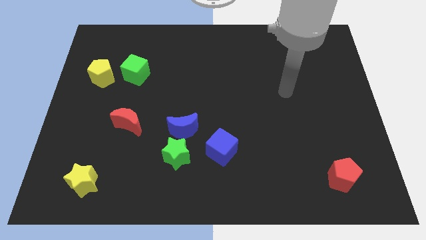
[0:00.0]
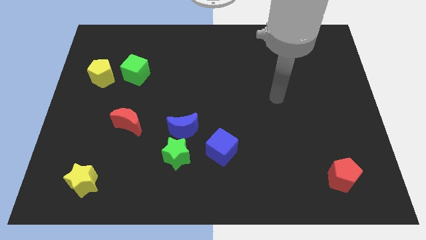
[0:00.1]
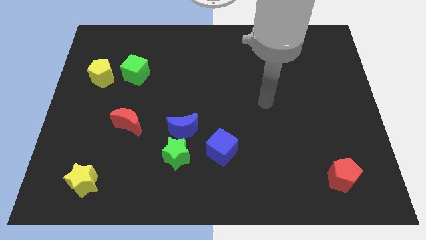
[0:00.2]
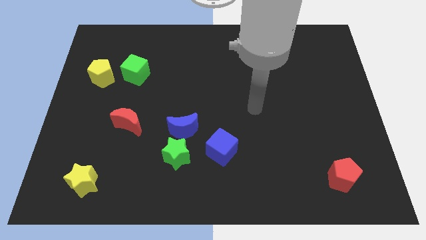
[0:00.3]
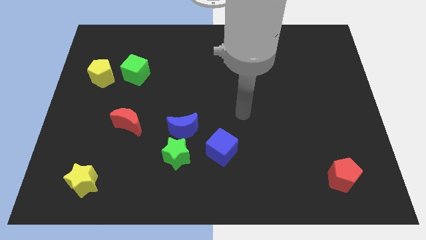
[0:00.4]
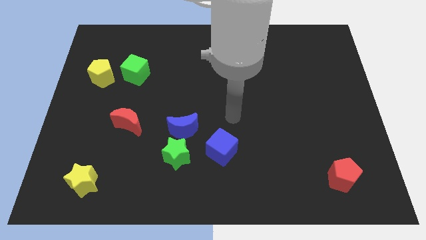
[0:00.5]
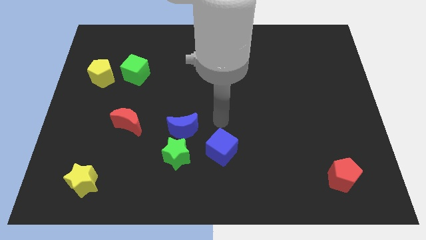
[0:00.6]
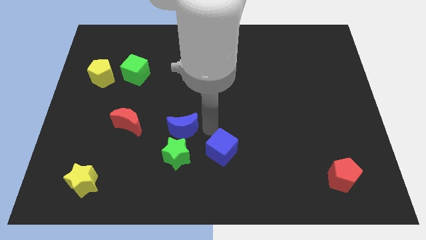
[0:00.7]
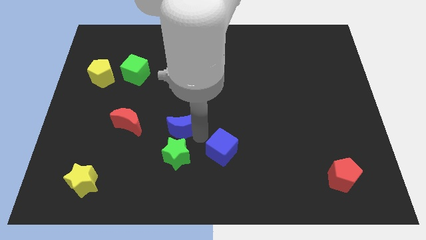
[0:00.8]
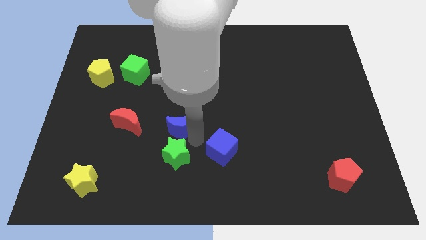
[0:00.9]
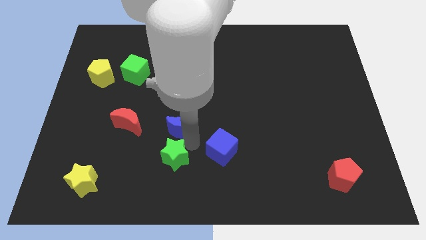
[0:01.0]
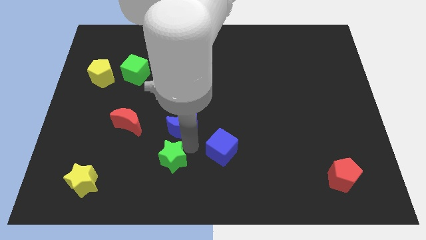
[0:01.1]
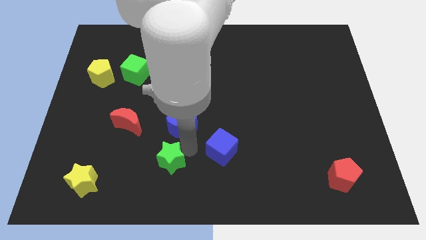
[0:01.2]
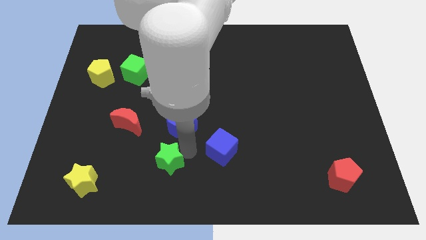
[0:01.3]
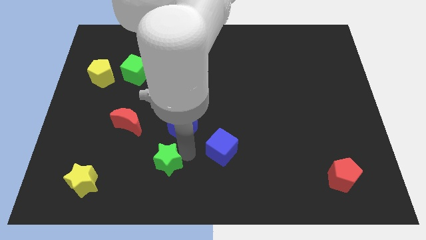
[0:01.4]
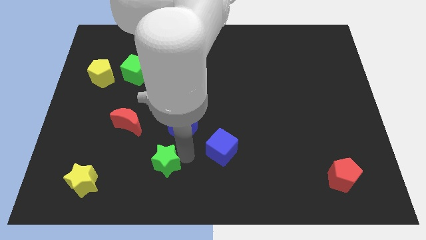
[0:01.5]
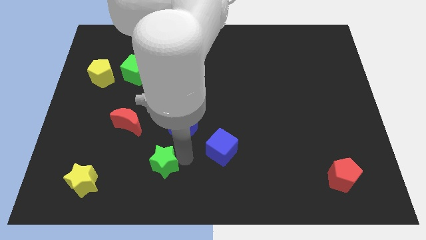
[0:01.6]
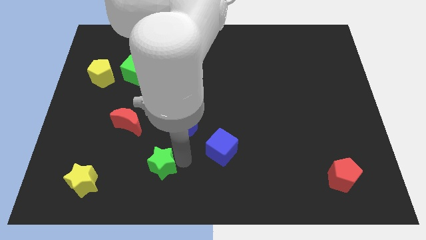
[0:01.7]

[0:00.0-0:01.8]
pull the green star apart from the blue moon and blue cube

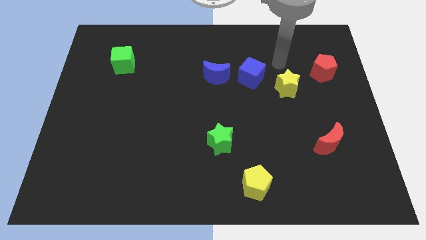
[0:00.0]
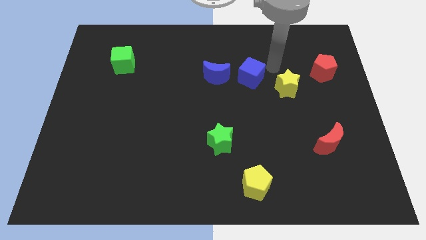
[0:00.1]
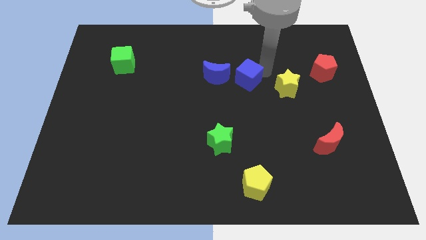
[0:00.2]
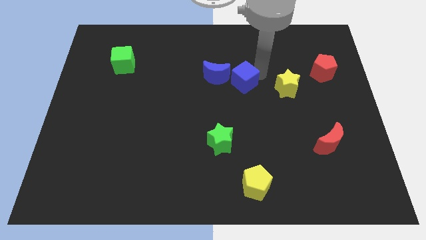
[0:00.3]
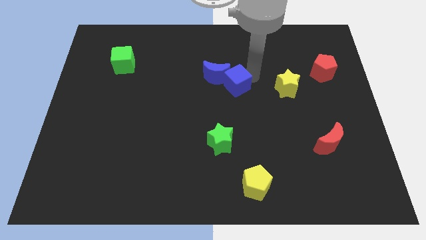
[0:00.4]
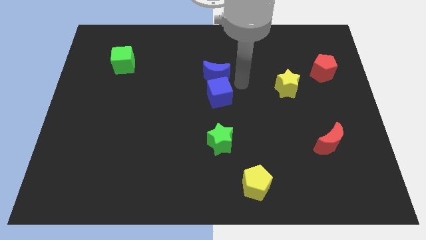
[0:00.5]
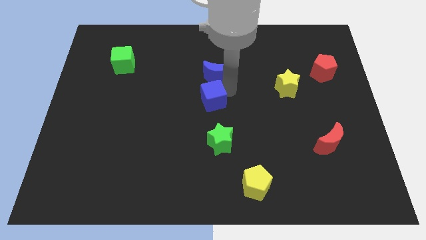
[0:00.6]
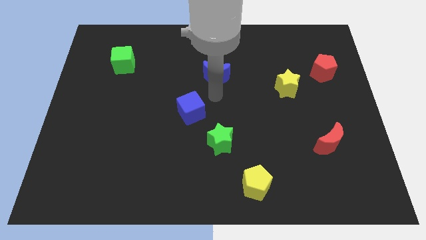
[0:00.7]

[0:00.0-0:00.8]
separate the blue moon from the blue cube

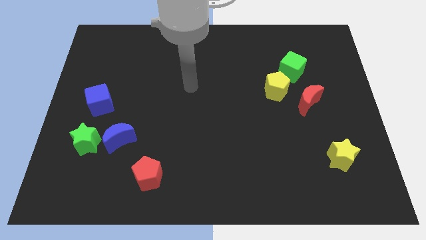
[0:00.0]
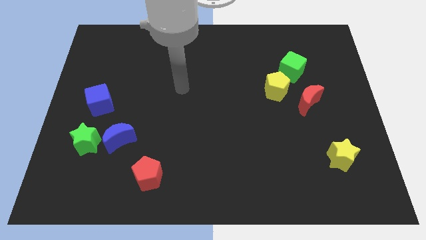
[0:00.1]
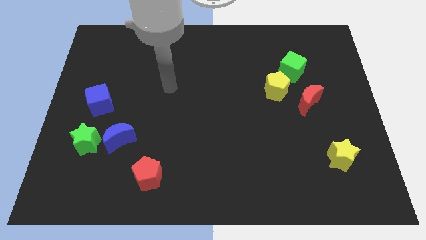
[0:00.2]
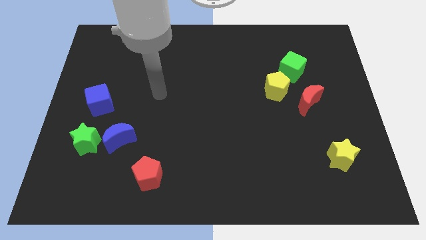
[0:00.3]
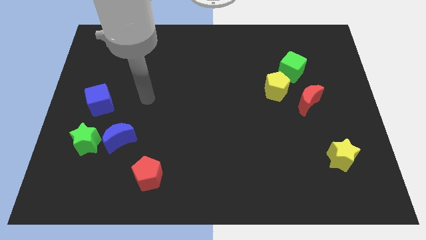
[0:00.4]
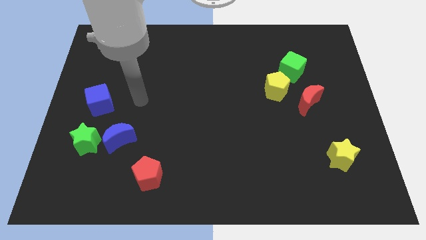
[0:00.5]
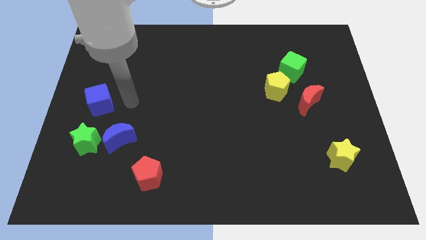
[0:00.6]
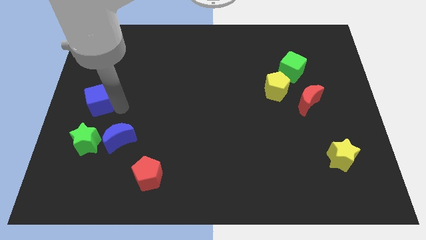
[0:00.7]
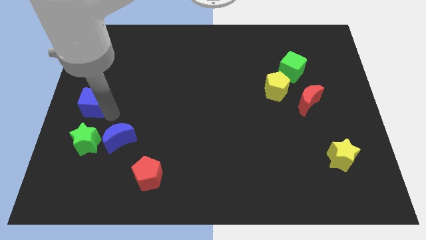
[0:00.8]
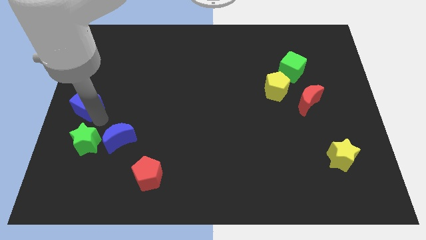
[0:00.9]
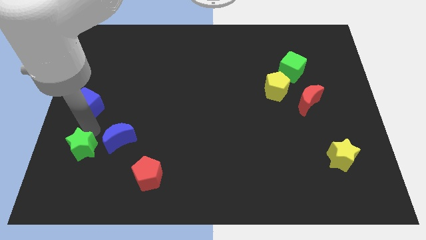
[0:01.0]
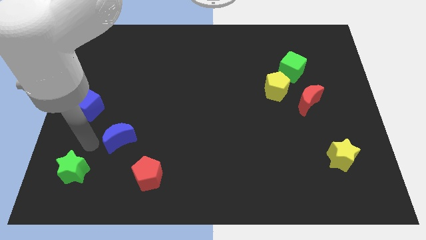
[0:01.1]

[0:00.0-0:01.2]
pull the blue moon apart from the green star

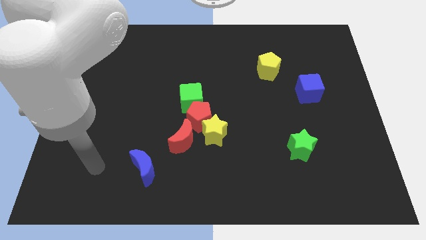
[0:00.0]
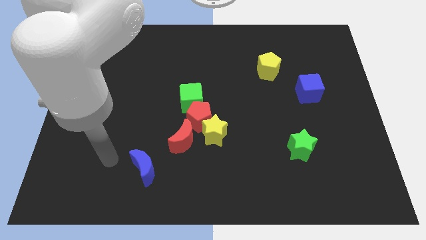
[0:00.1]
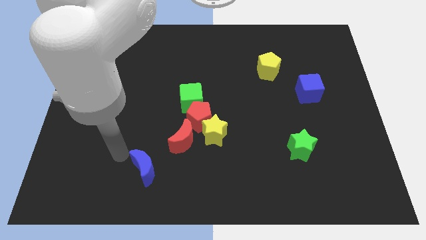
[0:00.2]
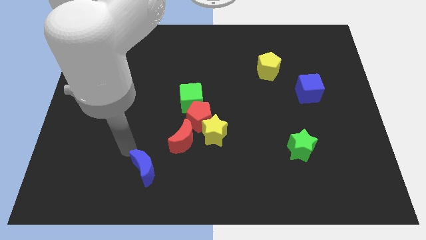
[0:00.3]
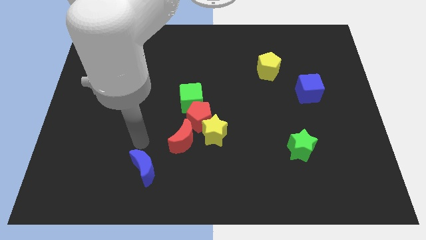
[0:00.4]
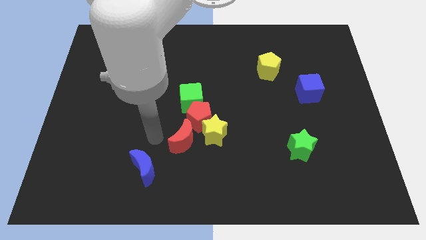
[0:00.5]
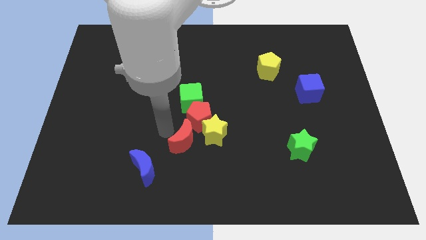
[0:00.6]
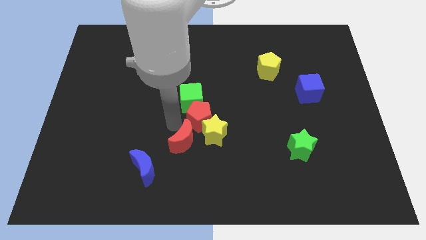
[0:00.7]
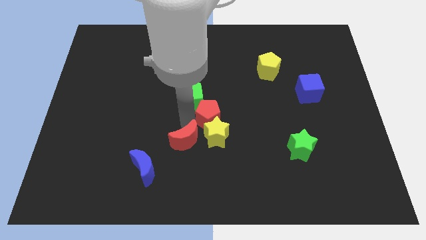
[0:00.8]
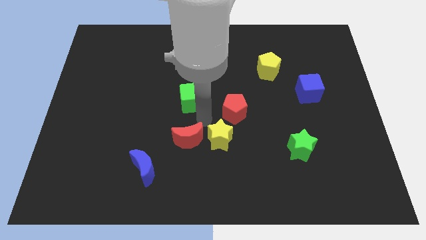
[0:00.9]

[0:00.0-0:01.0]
separate the green cube from the red pentagon

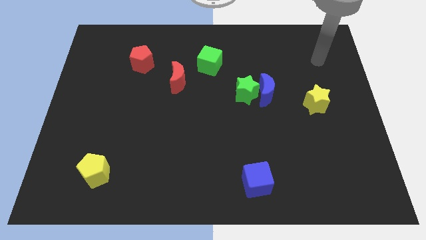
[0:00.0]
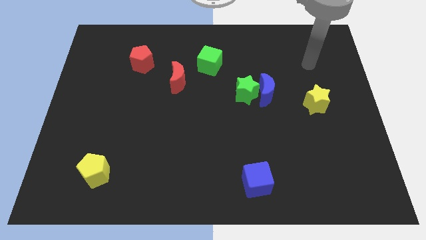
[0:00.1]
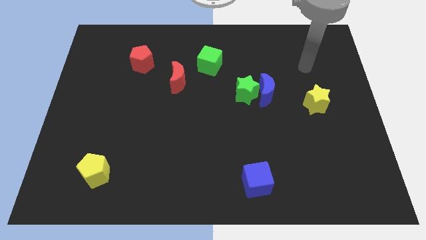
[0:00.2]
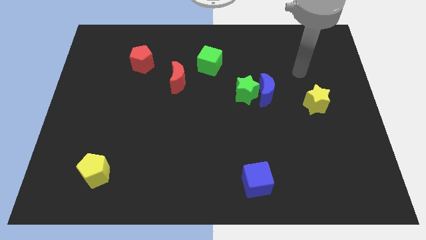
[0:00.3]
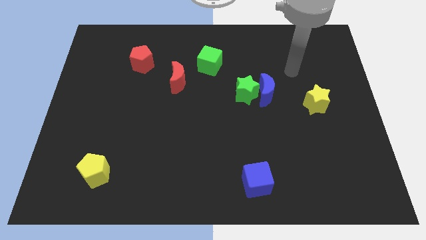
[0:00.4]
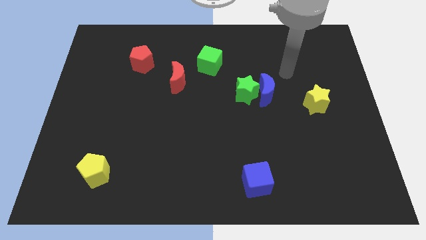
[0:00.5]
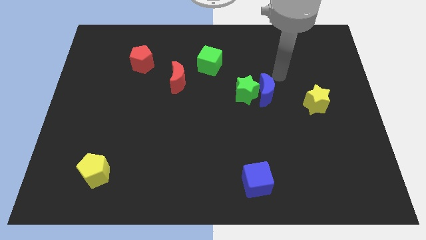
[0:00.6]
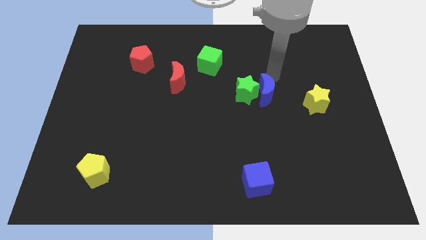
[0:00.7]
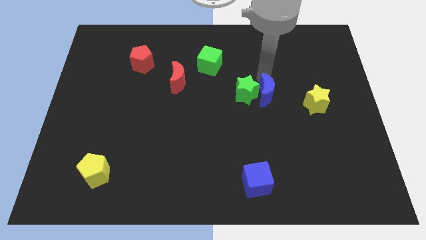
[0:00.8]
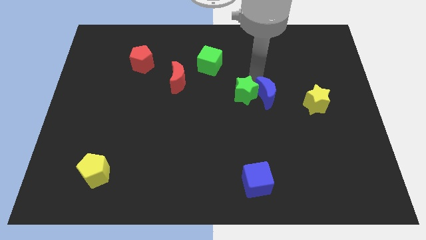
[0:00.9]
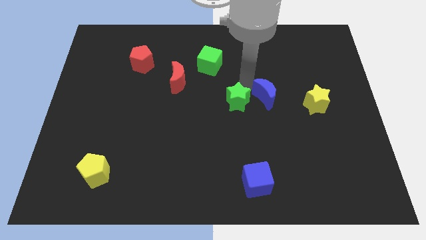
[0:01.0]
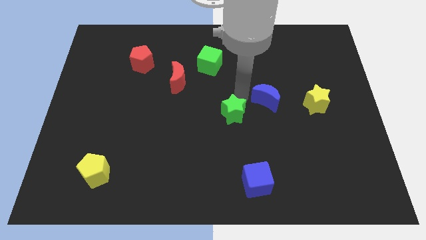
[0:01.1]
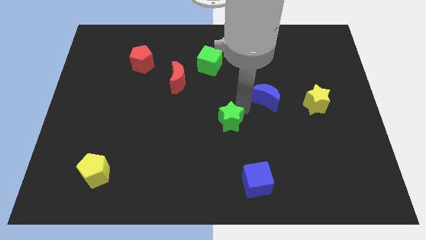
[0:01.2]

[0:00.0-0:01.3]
move the blue moon away from the green star

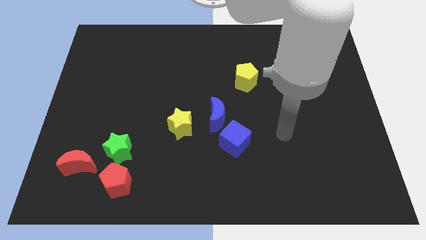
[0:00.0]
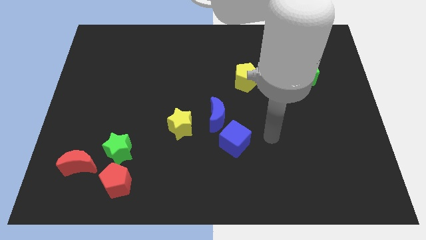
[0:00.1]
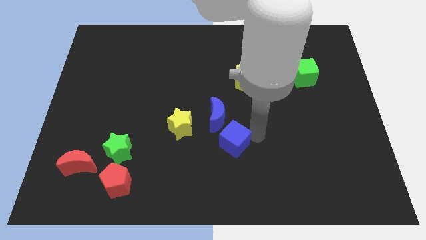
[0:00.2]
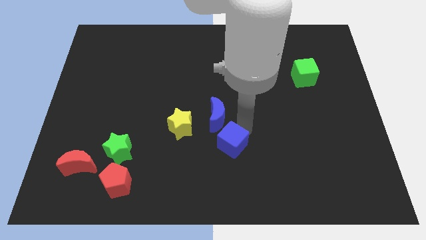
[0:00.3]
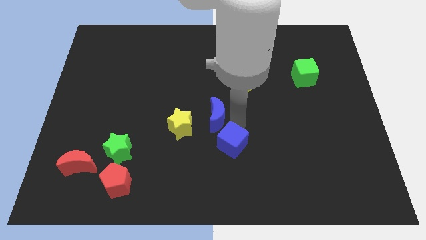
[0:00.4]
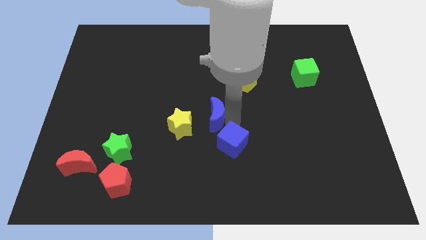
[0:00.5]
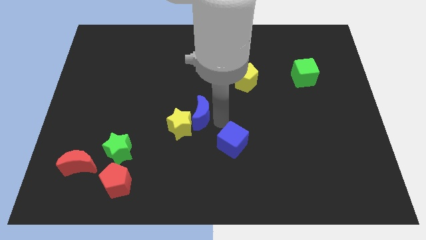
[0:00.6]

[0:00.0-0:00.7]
move the blue cube away from the blue moon

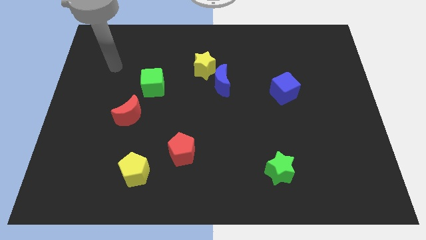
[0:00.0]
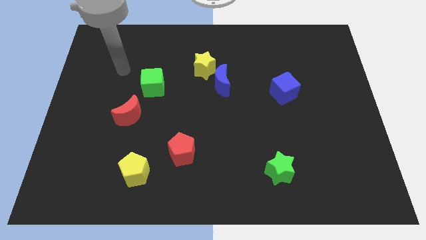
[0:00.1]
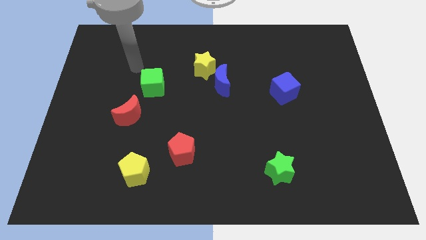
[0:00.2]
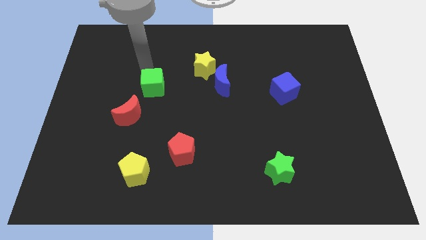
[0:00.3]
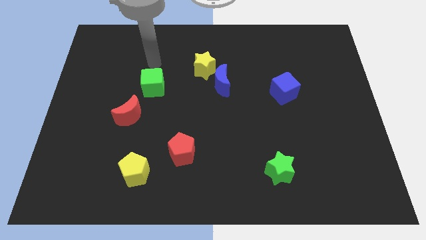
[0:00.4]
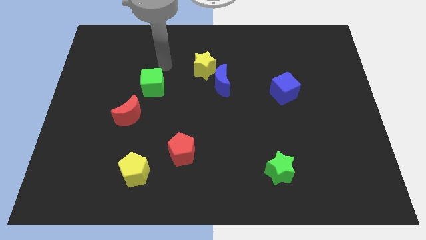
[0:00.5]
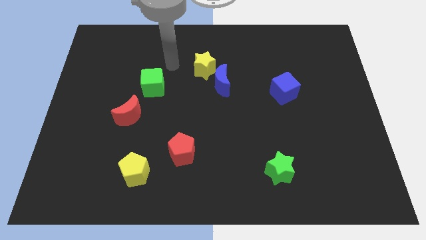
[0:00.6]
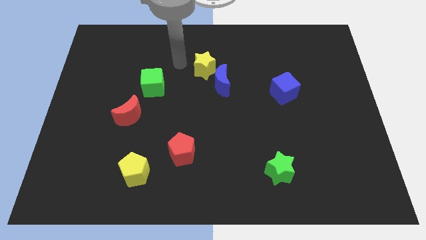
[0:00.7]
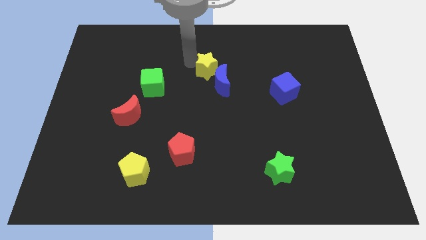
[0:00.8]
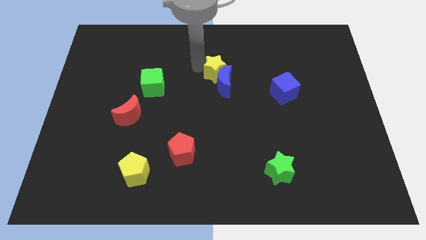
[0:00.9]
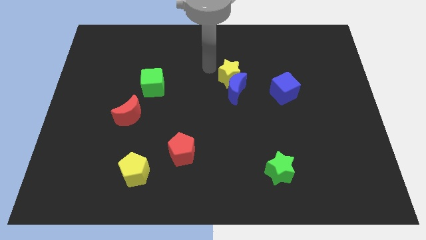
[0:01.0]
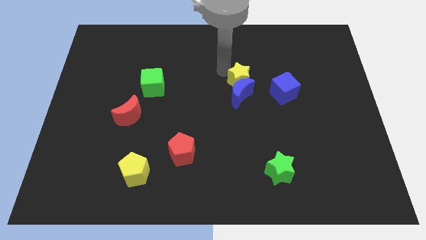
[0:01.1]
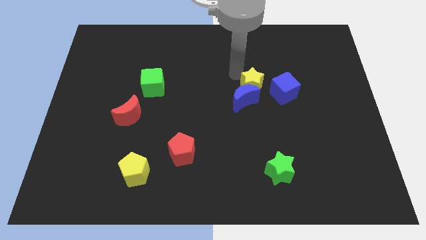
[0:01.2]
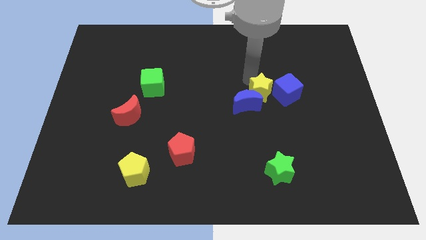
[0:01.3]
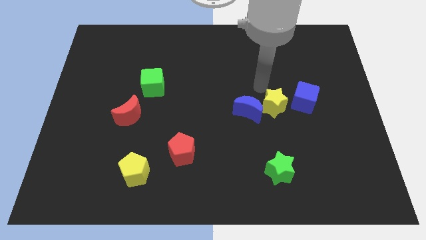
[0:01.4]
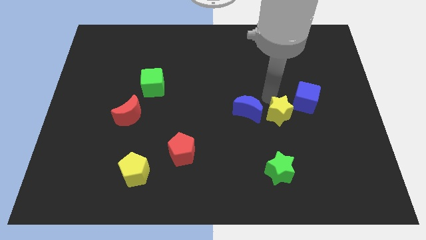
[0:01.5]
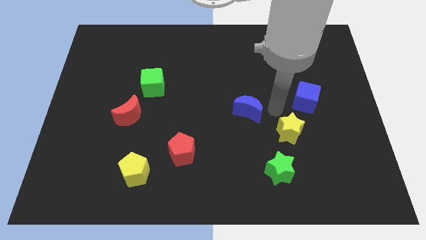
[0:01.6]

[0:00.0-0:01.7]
move the blue moon away from the yellow star

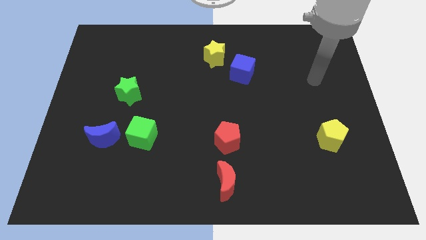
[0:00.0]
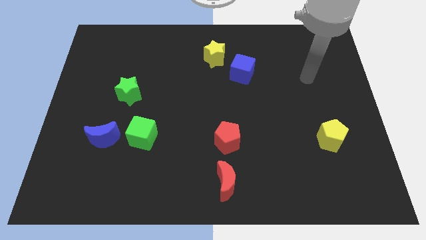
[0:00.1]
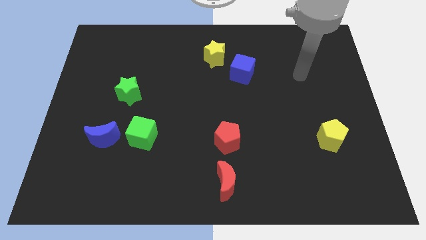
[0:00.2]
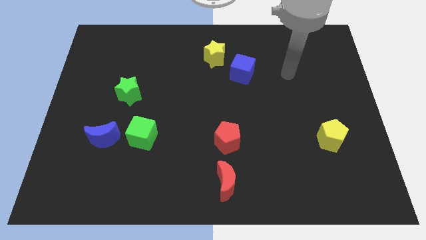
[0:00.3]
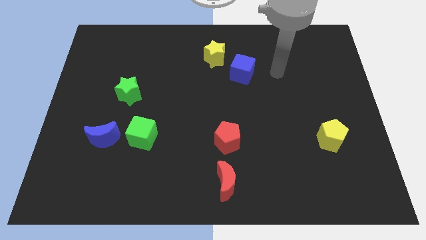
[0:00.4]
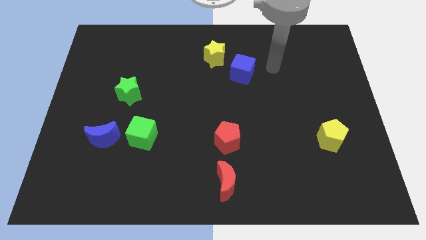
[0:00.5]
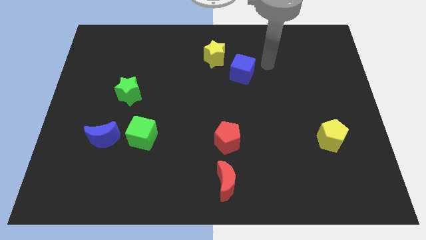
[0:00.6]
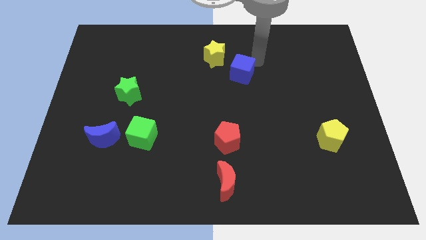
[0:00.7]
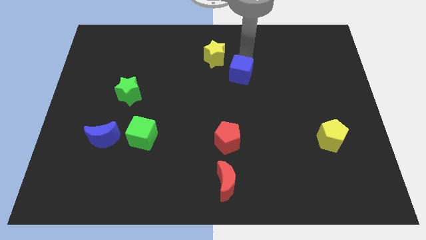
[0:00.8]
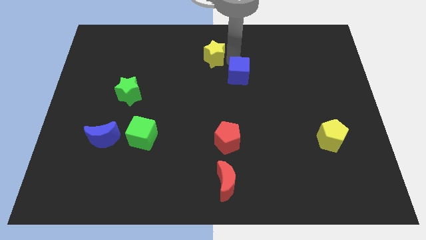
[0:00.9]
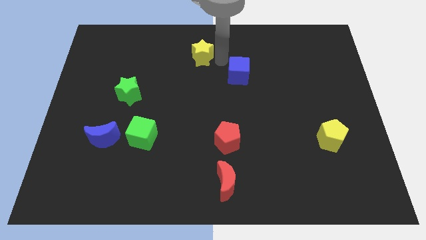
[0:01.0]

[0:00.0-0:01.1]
separate the blue cube from the yellow star
